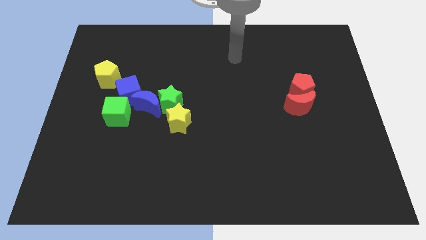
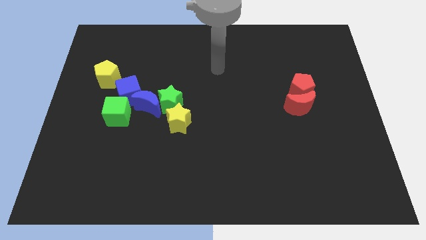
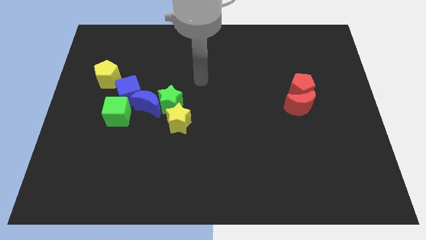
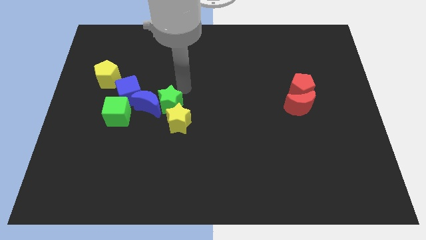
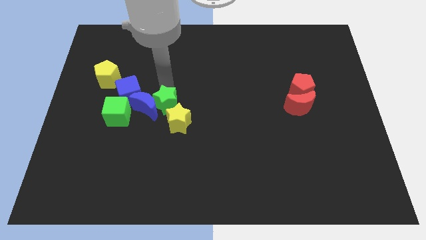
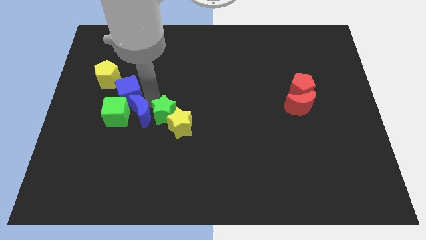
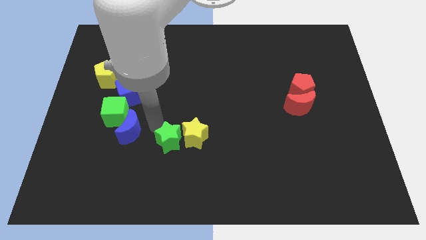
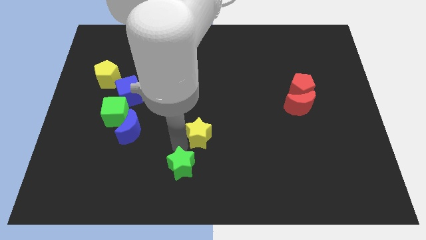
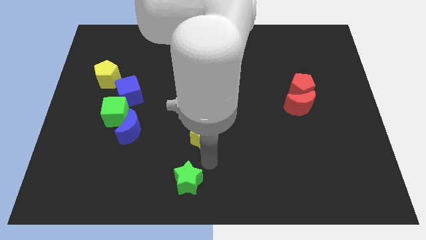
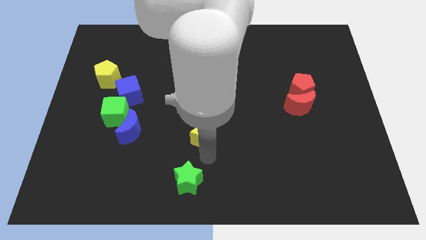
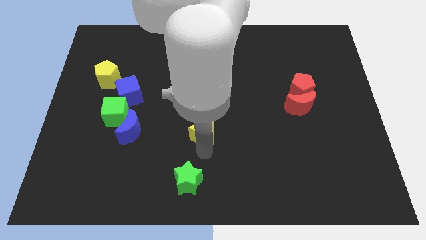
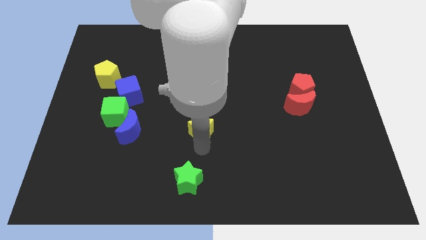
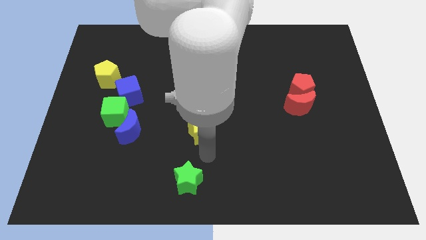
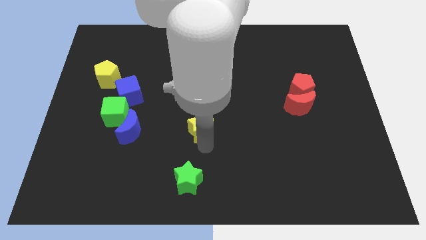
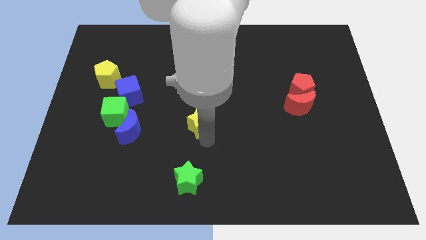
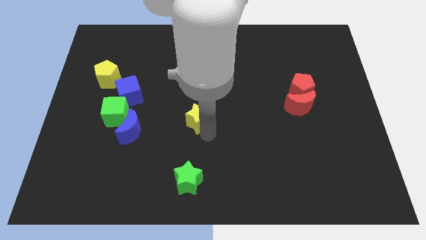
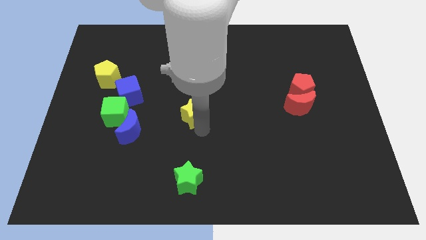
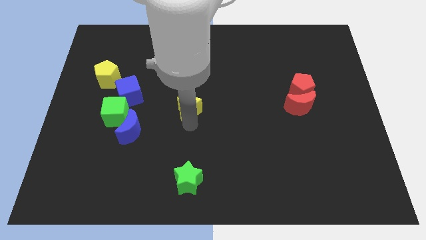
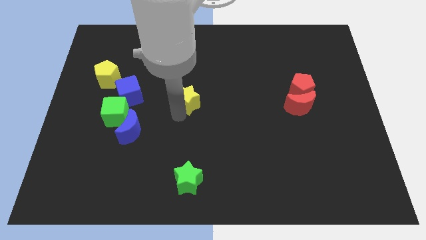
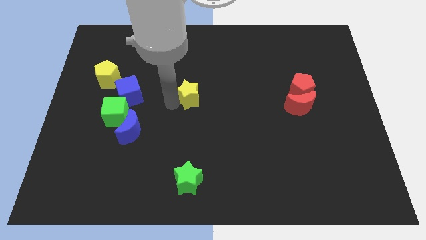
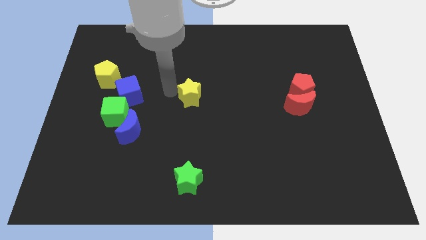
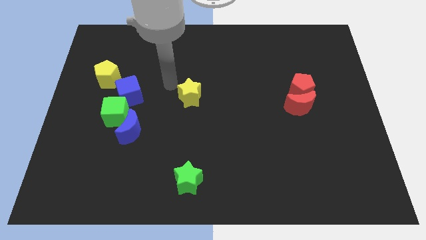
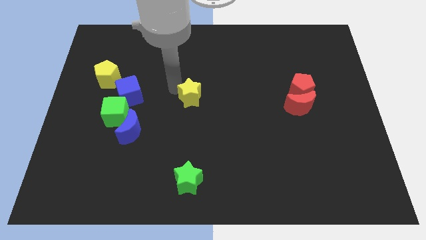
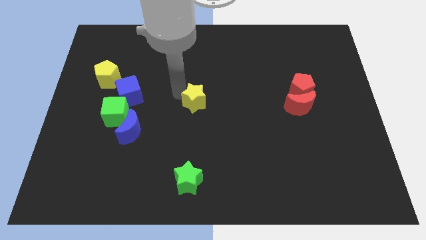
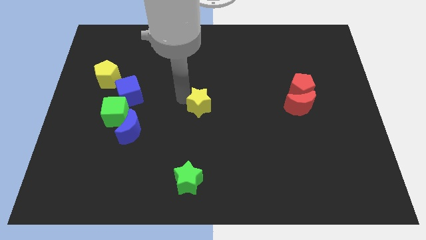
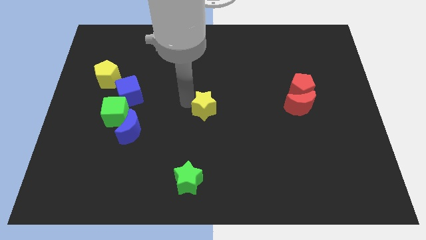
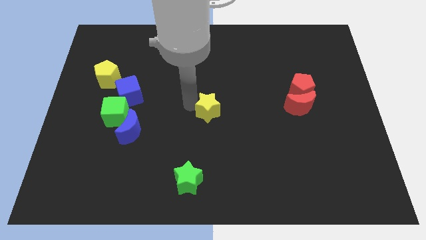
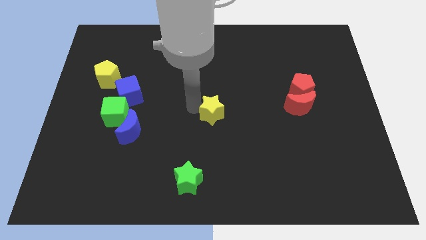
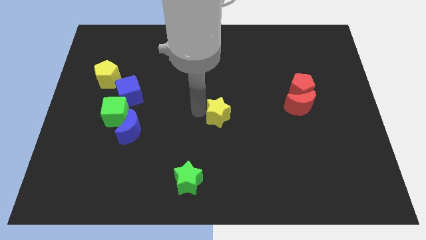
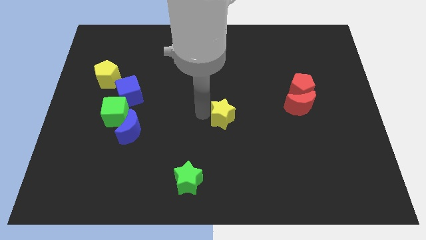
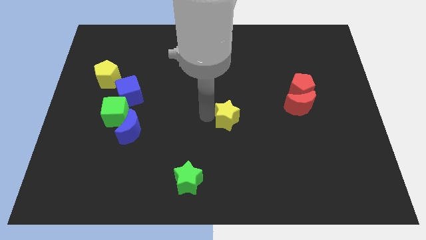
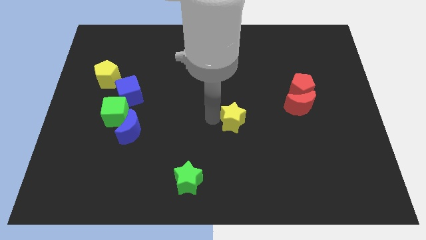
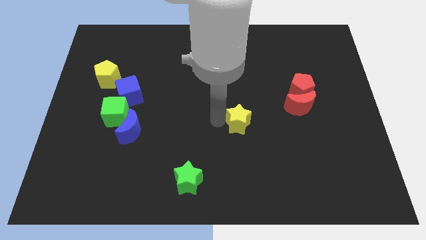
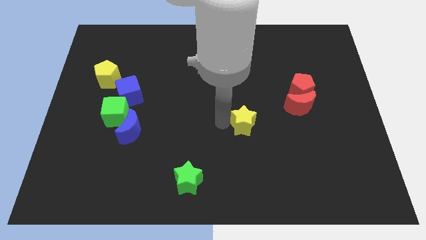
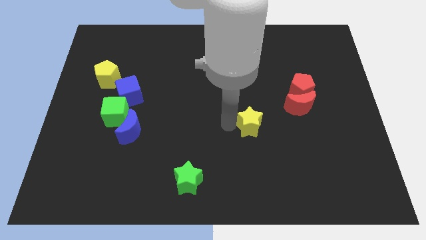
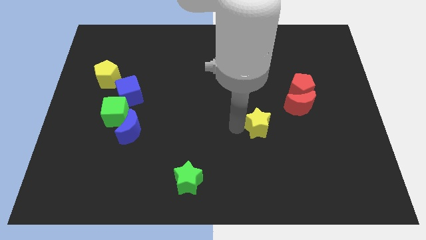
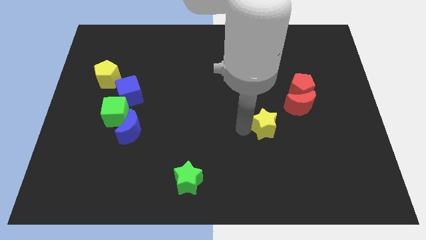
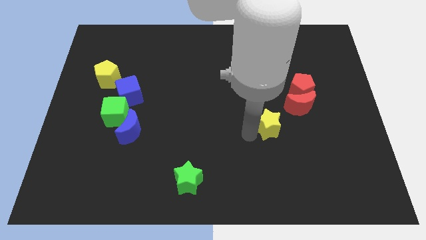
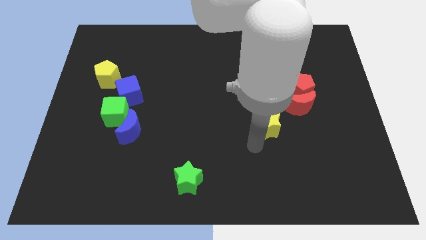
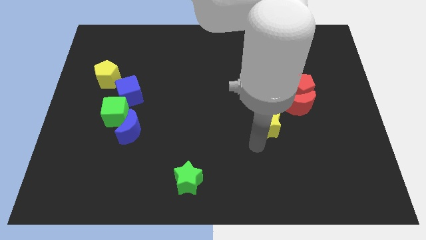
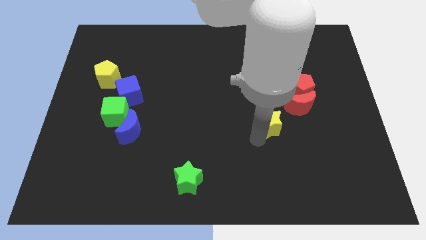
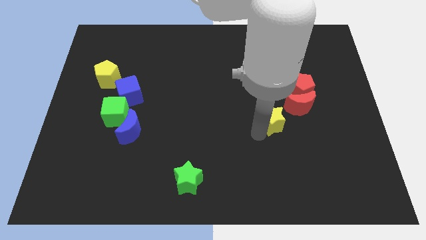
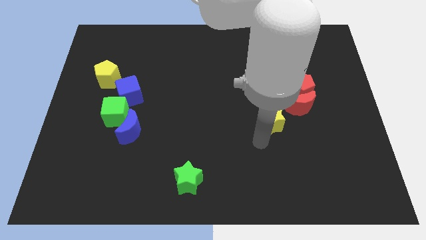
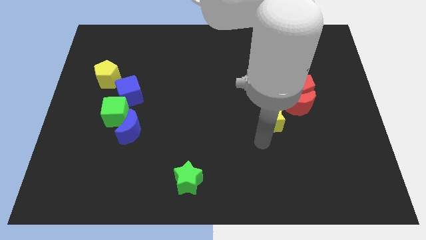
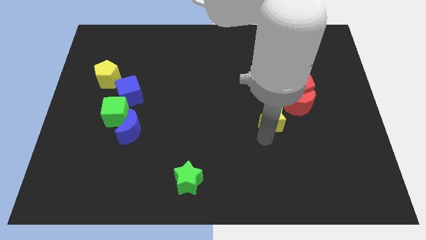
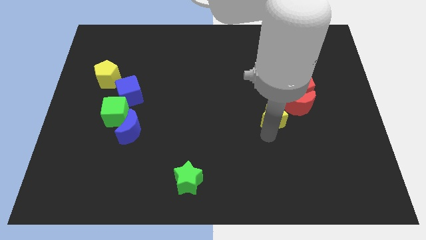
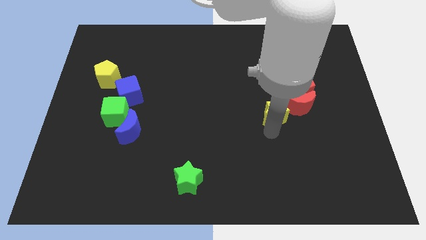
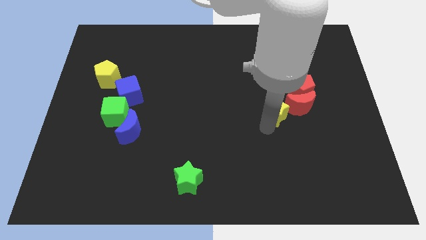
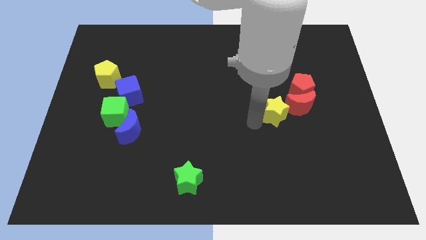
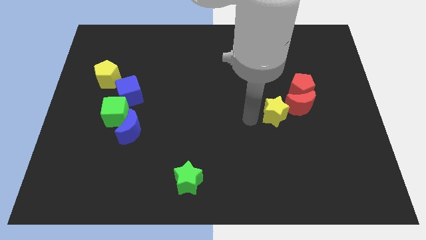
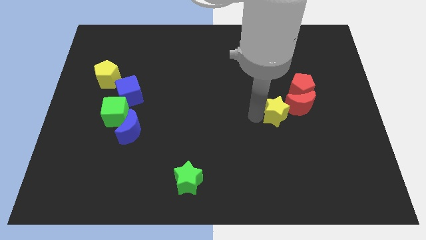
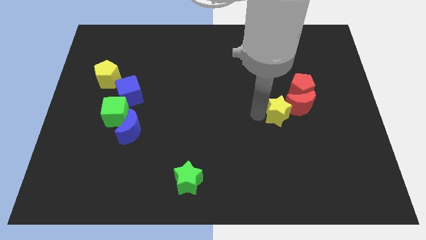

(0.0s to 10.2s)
slide the yellow star next to the red moon

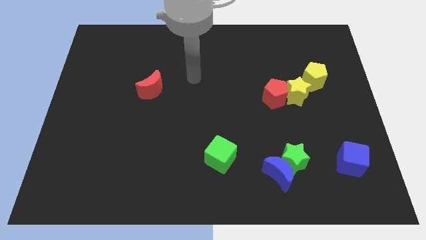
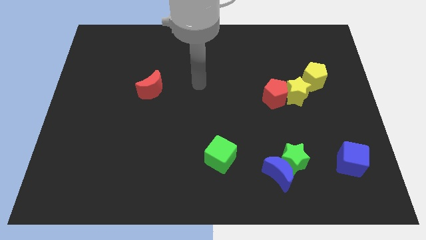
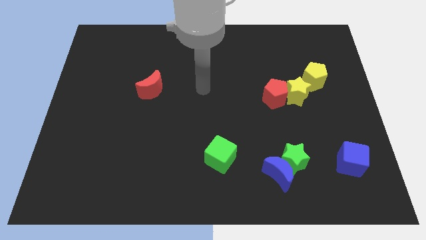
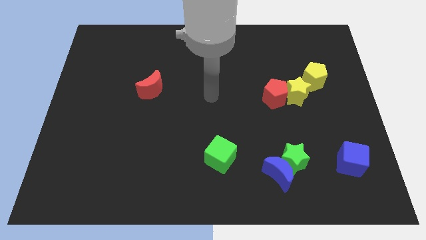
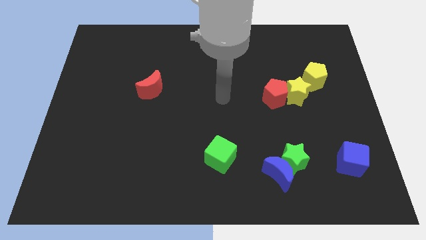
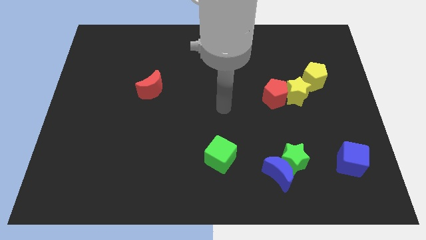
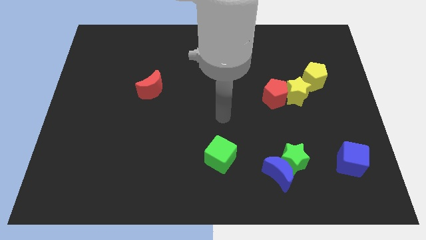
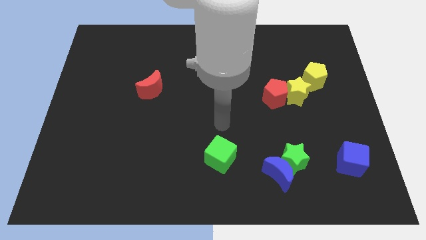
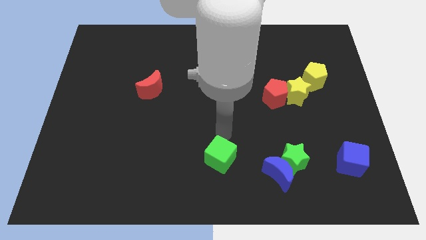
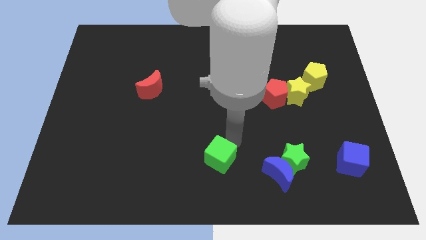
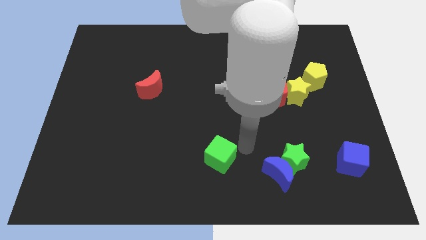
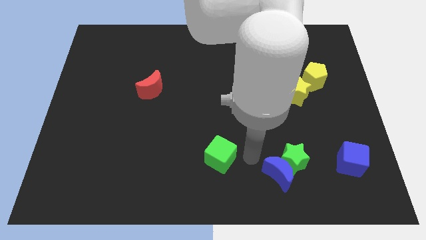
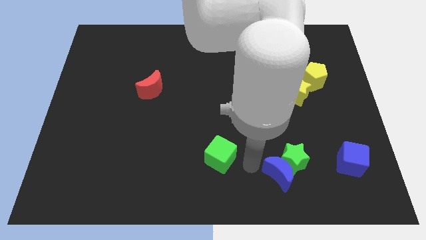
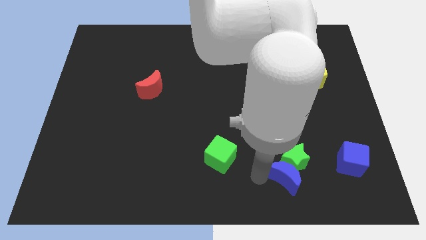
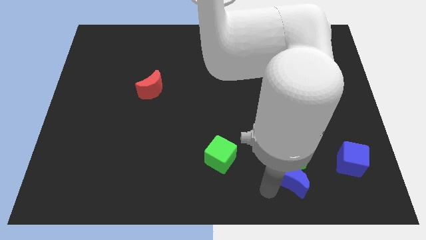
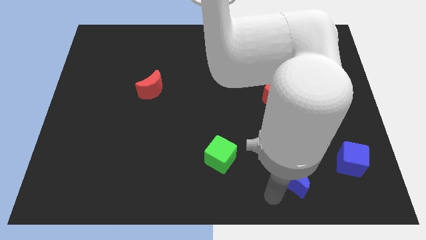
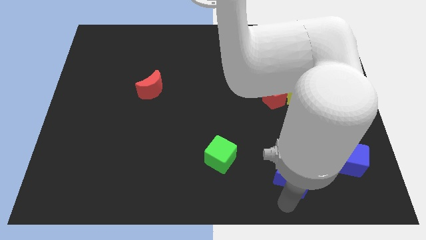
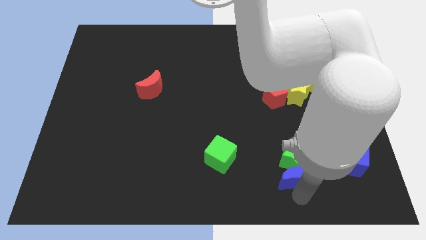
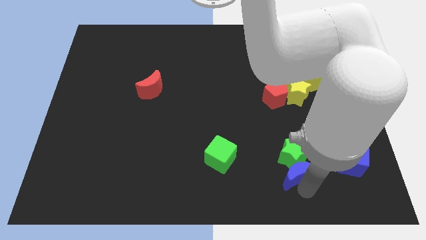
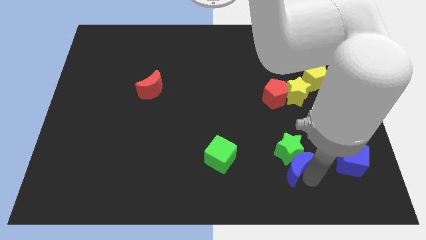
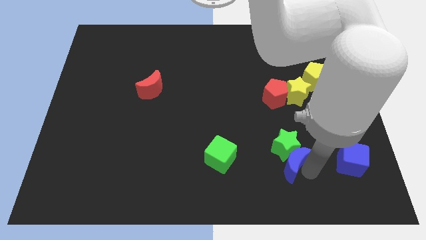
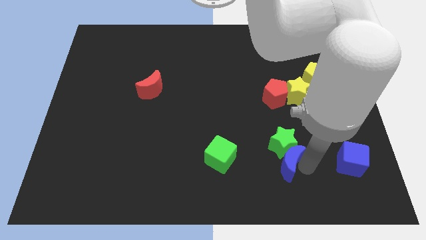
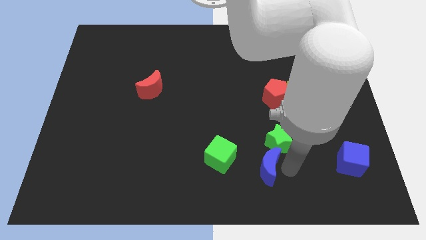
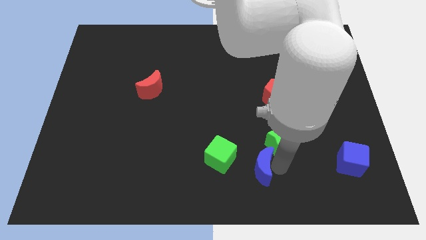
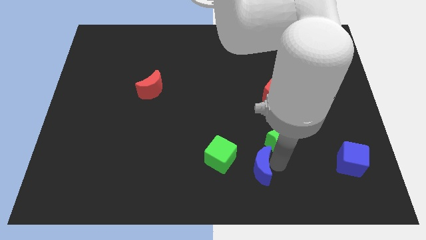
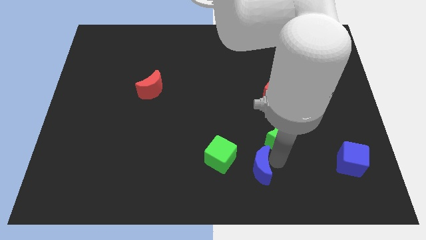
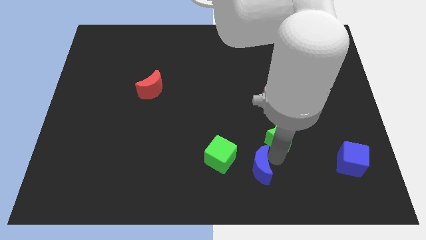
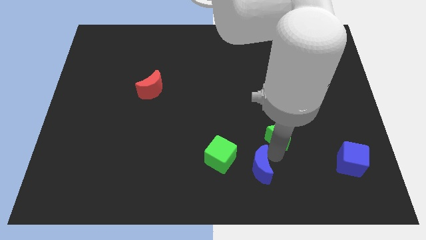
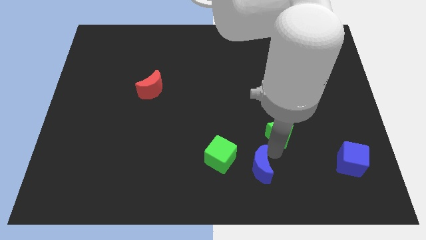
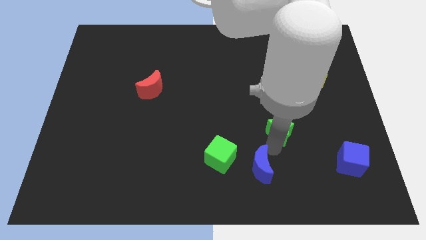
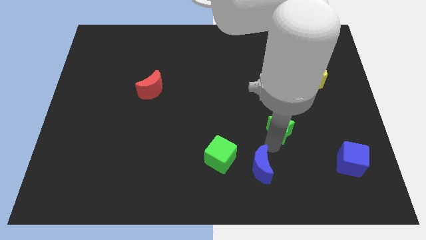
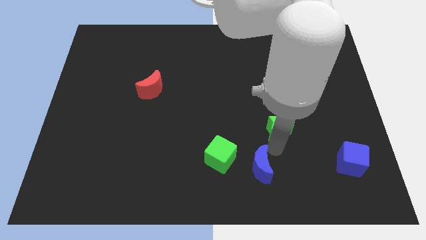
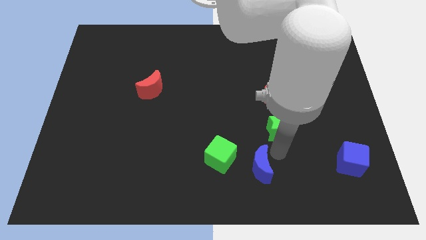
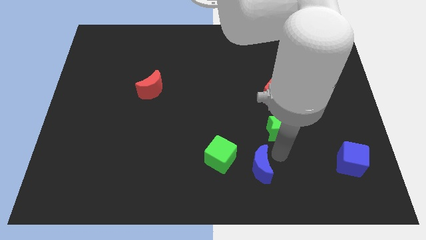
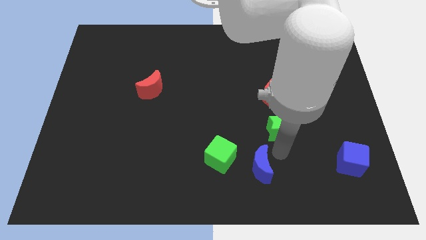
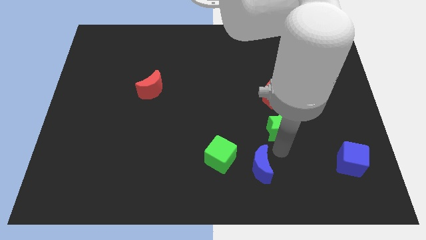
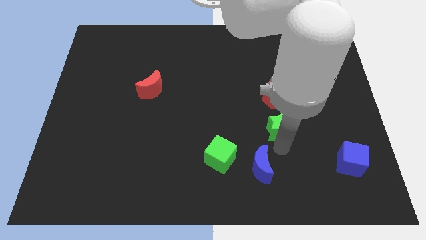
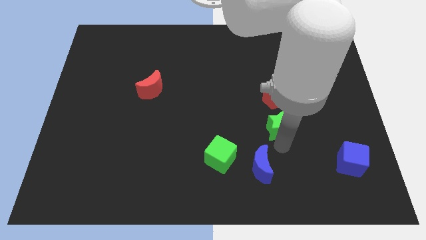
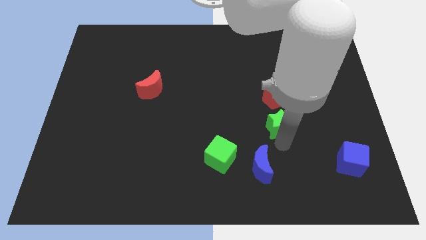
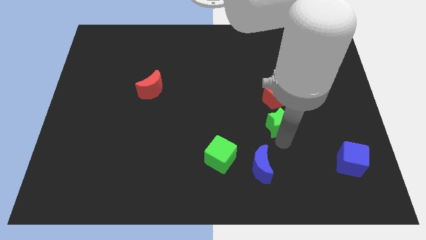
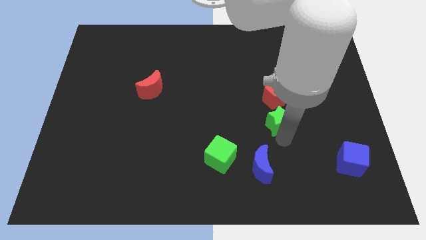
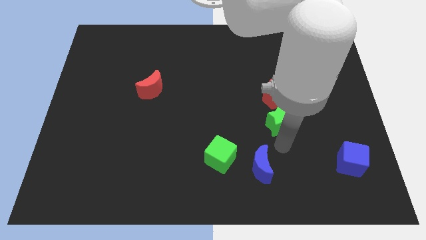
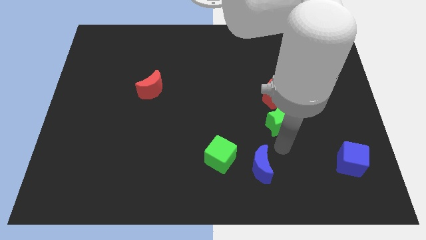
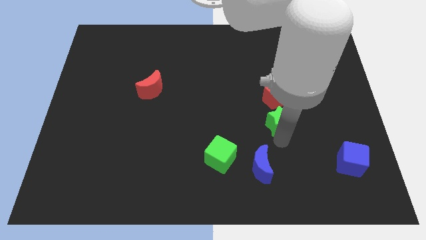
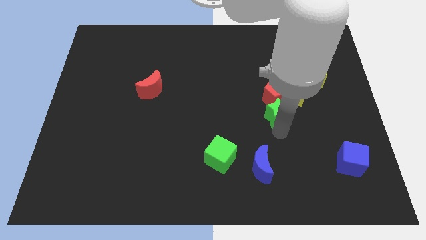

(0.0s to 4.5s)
move the green star next to the red pentagon
